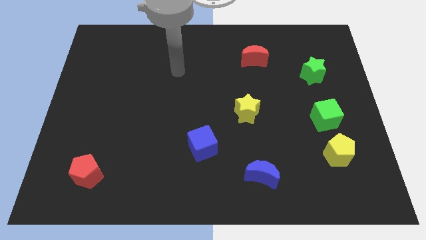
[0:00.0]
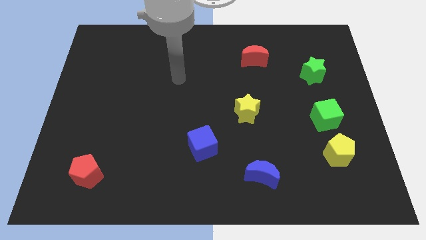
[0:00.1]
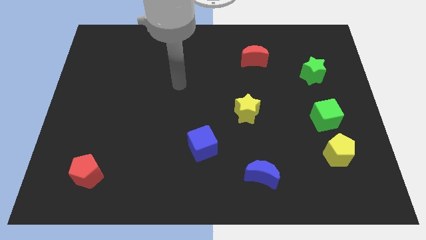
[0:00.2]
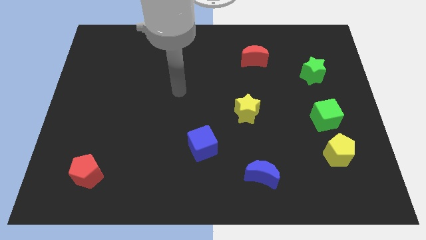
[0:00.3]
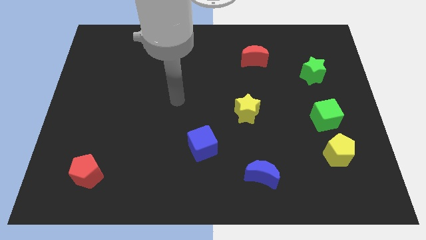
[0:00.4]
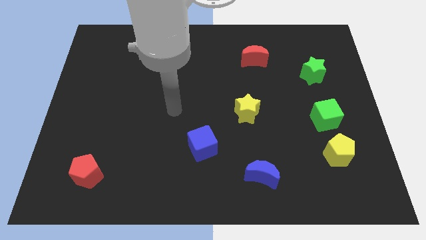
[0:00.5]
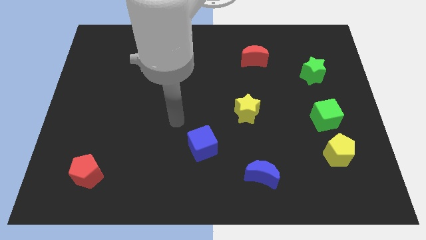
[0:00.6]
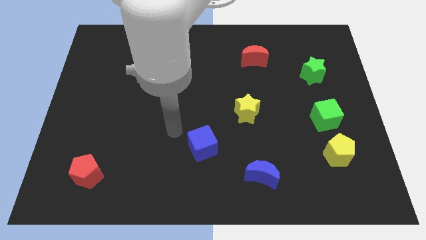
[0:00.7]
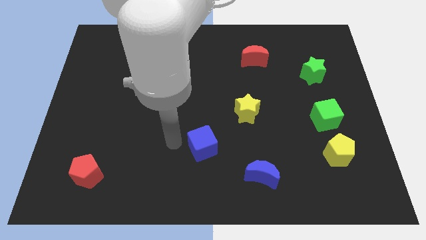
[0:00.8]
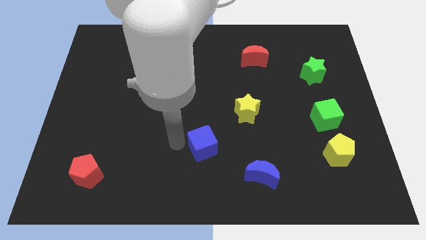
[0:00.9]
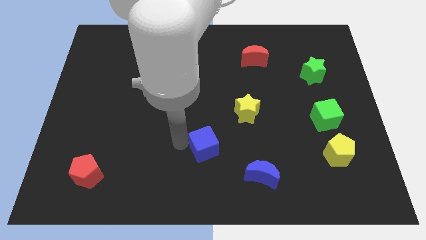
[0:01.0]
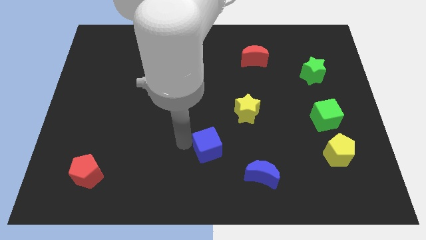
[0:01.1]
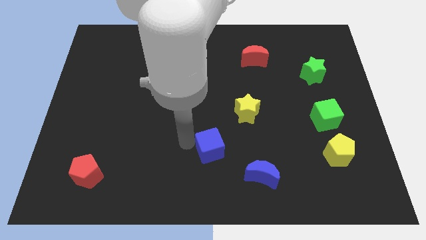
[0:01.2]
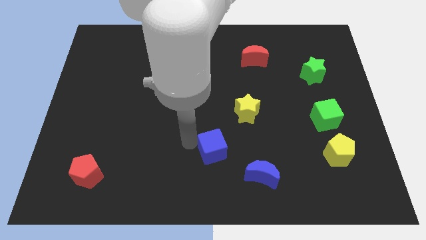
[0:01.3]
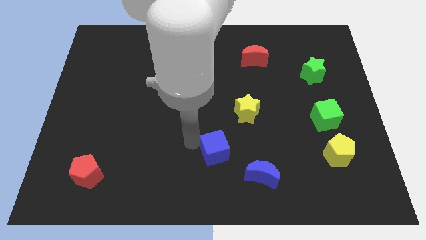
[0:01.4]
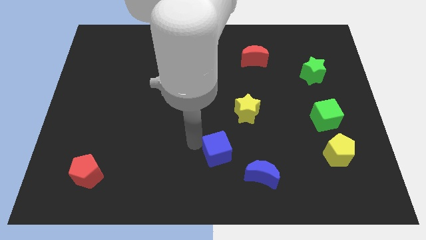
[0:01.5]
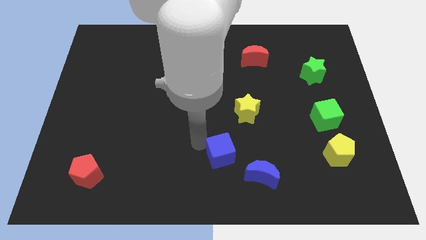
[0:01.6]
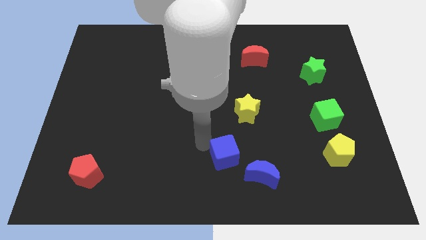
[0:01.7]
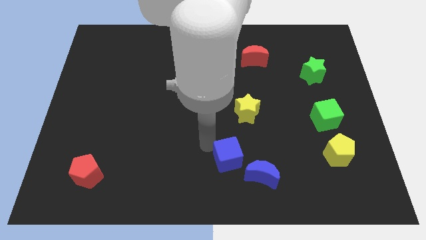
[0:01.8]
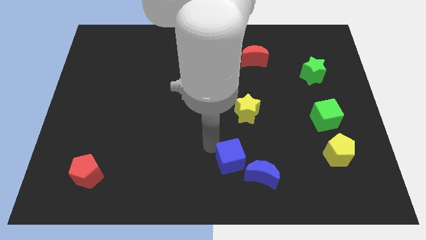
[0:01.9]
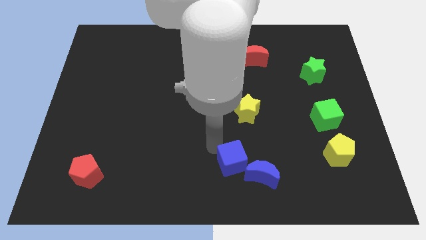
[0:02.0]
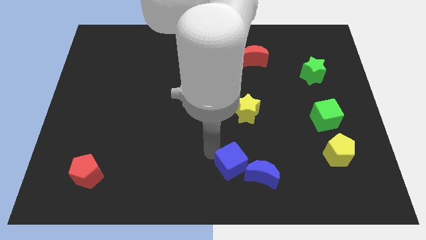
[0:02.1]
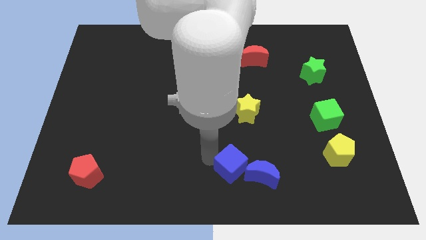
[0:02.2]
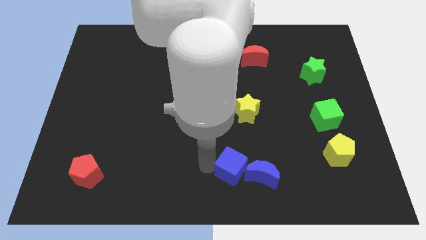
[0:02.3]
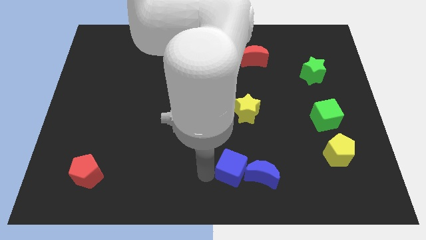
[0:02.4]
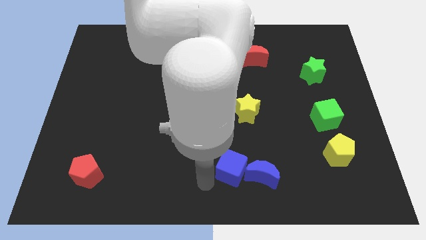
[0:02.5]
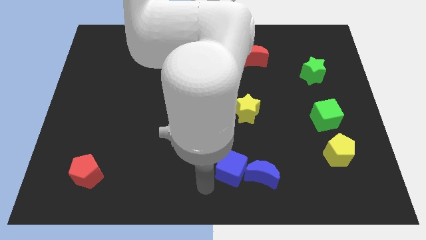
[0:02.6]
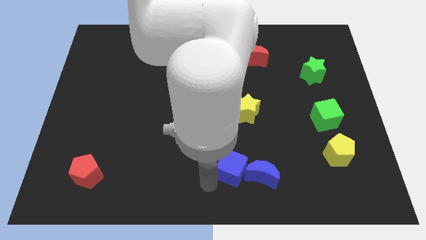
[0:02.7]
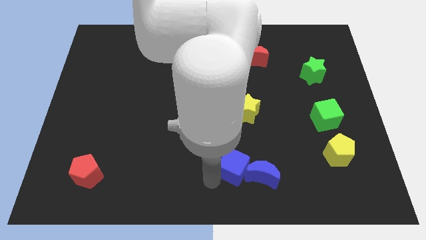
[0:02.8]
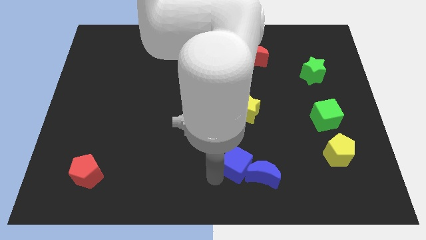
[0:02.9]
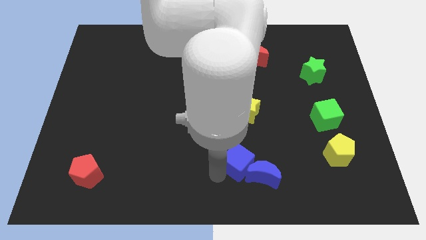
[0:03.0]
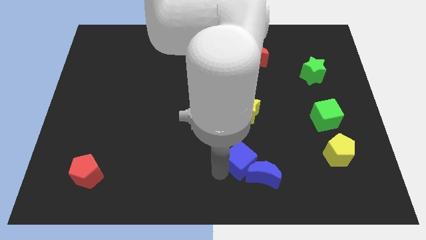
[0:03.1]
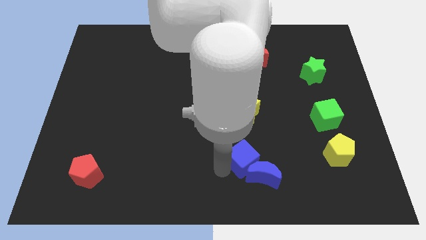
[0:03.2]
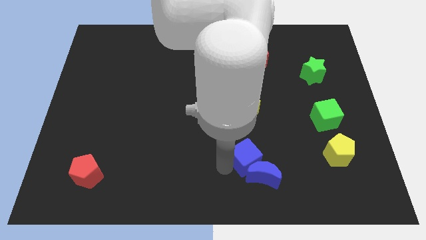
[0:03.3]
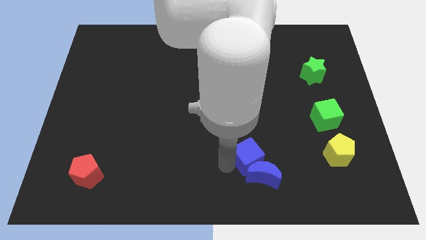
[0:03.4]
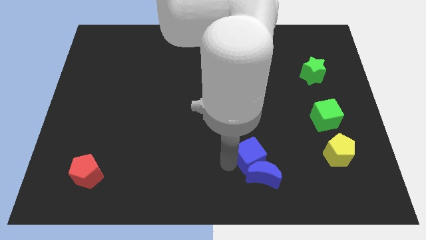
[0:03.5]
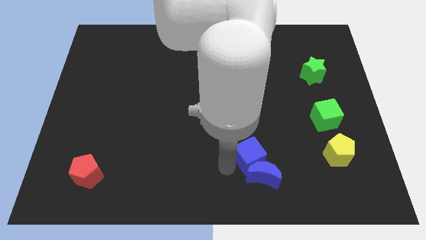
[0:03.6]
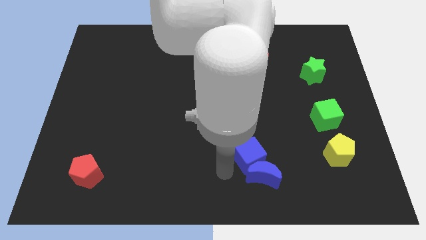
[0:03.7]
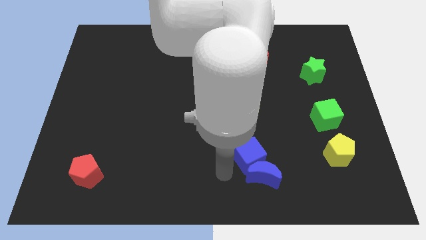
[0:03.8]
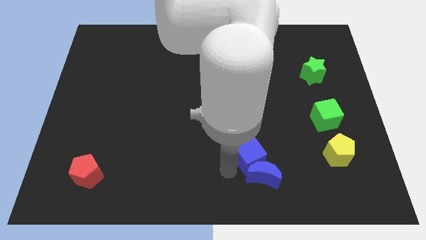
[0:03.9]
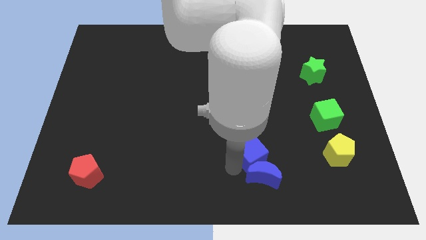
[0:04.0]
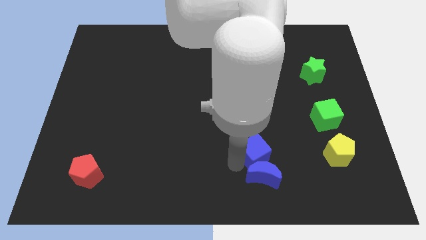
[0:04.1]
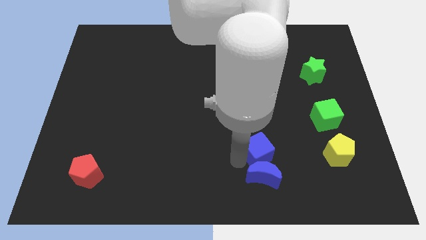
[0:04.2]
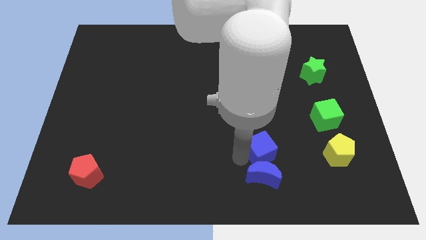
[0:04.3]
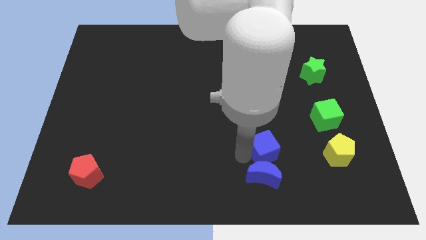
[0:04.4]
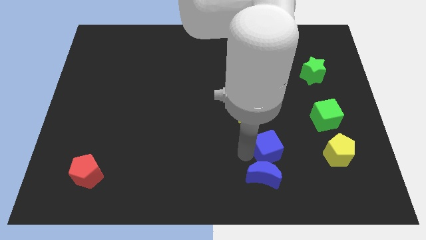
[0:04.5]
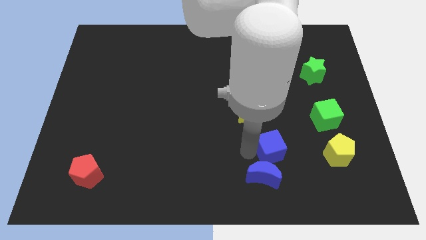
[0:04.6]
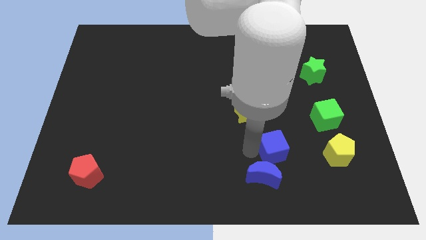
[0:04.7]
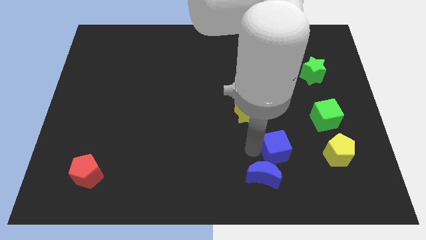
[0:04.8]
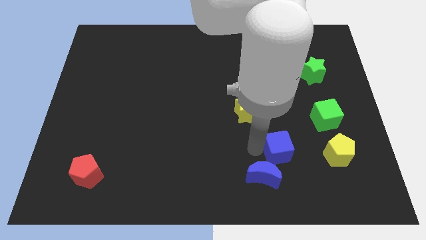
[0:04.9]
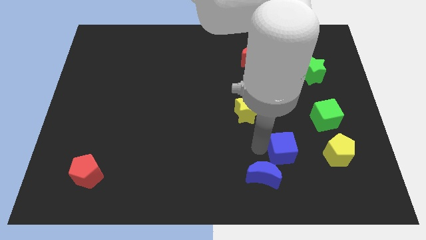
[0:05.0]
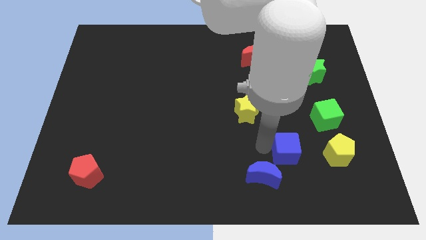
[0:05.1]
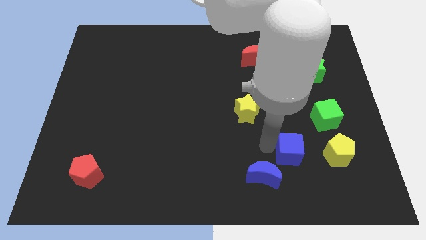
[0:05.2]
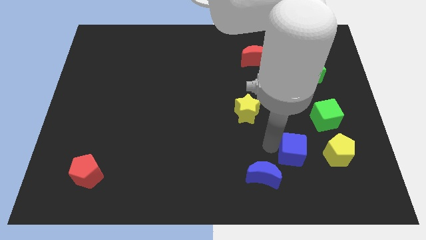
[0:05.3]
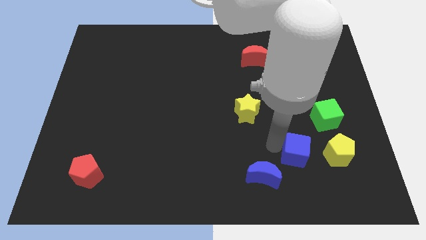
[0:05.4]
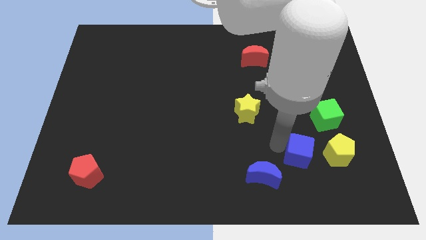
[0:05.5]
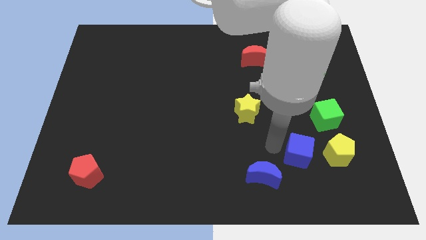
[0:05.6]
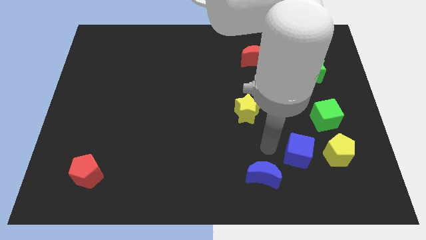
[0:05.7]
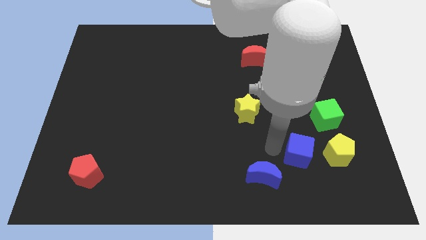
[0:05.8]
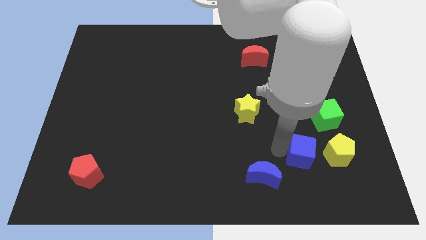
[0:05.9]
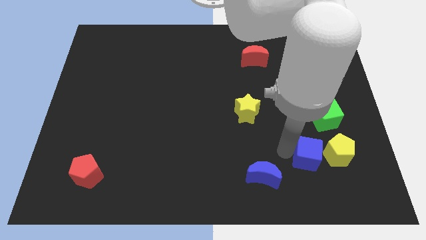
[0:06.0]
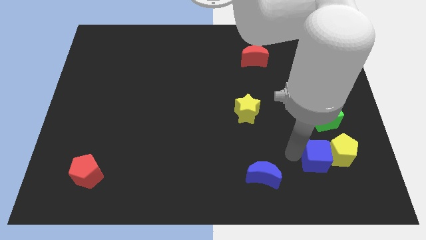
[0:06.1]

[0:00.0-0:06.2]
slide the blue cube towards the yellow pentagon

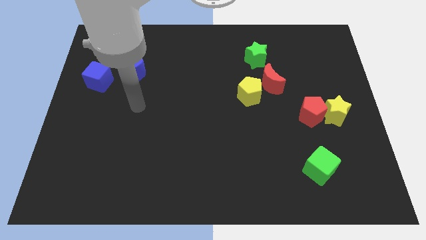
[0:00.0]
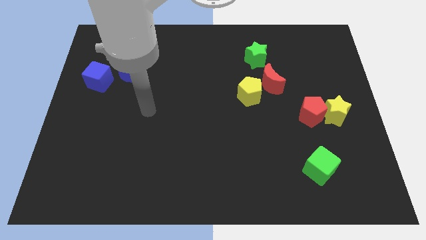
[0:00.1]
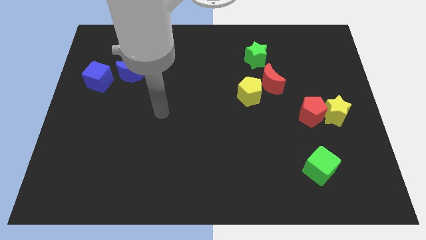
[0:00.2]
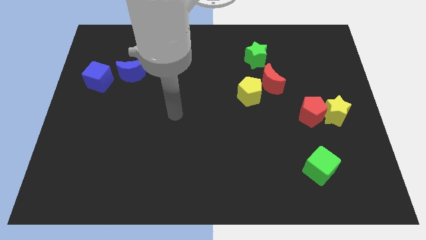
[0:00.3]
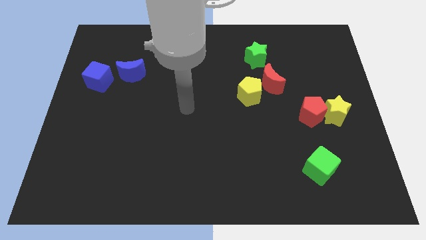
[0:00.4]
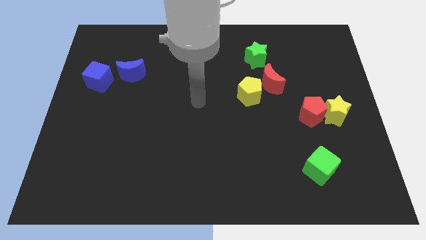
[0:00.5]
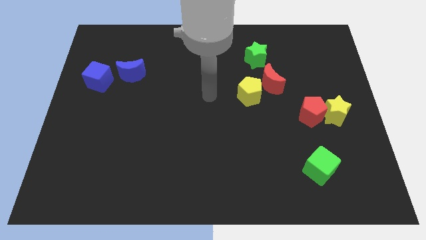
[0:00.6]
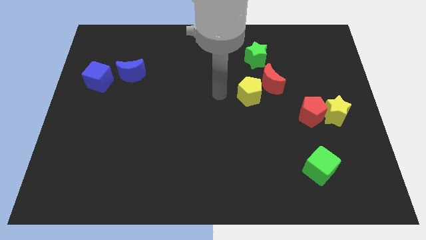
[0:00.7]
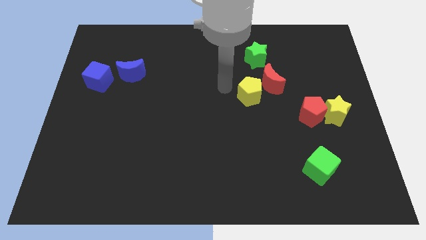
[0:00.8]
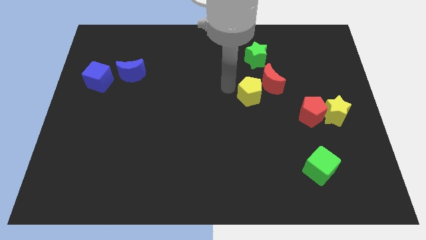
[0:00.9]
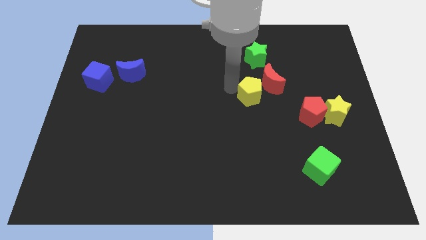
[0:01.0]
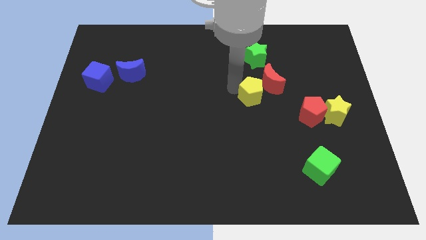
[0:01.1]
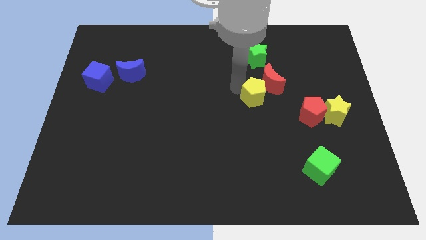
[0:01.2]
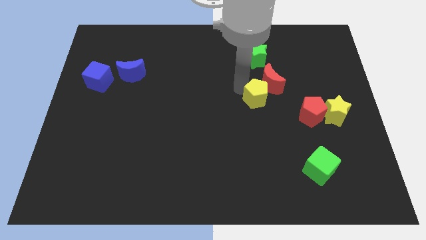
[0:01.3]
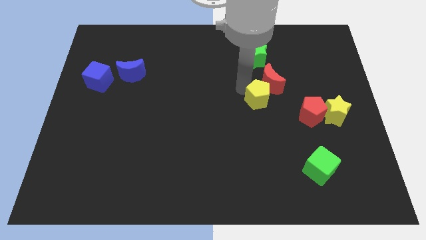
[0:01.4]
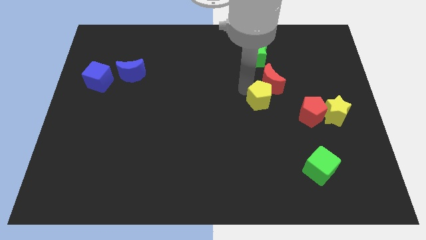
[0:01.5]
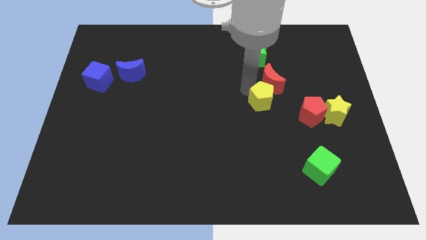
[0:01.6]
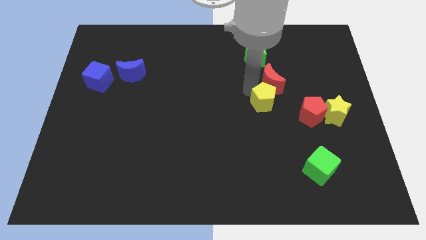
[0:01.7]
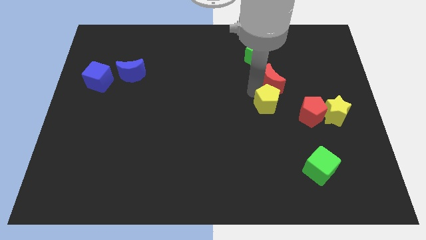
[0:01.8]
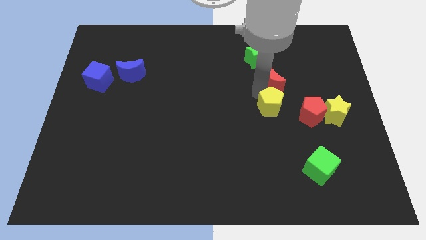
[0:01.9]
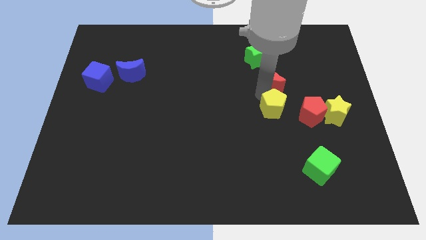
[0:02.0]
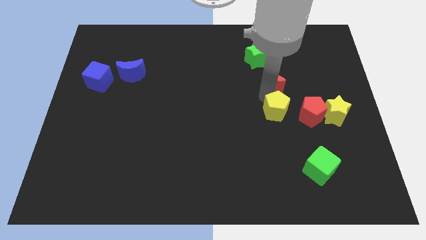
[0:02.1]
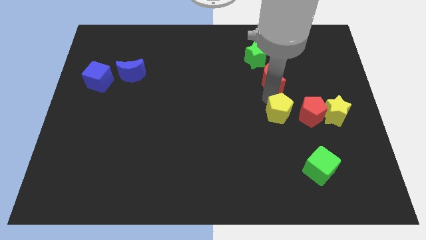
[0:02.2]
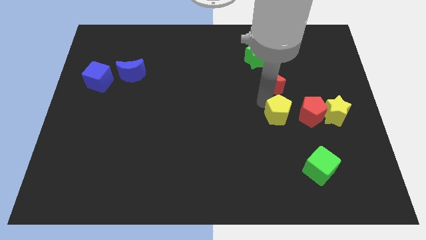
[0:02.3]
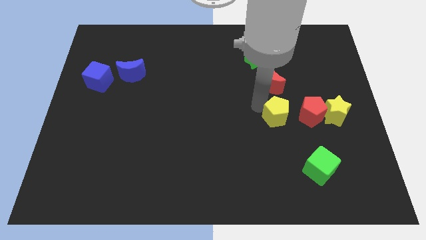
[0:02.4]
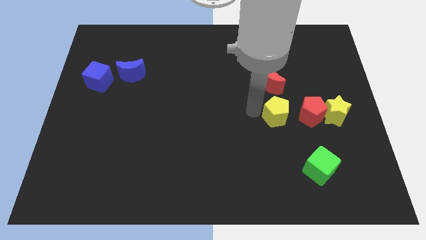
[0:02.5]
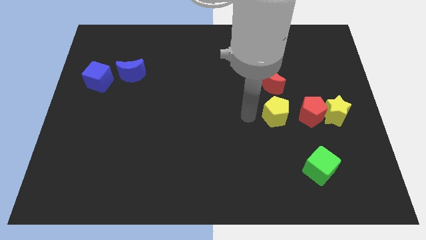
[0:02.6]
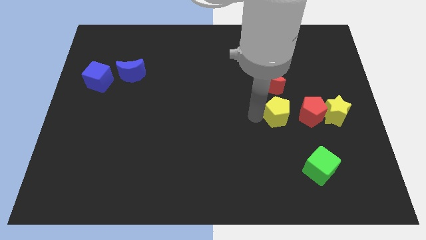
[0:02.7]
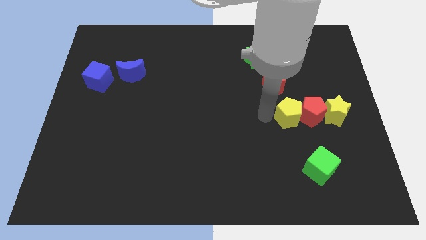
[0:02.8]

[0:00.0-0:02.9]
slide the yellow pentagon towards the red pentagon
